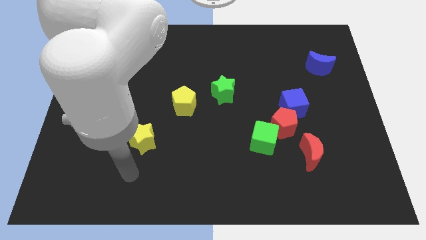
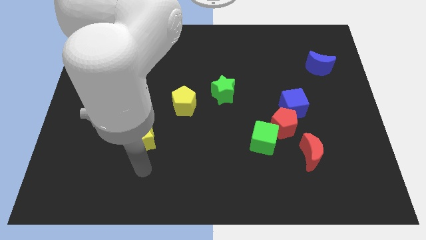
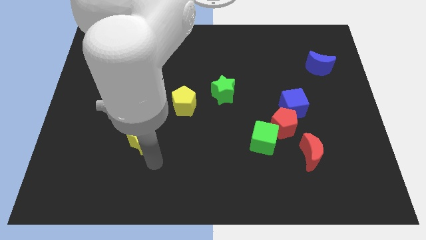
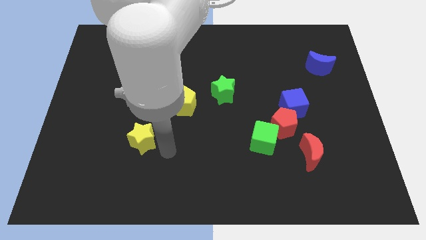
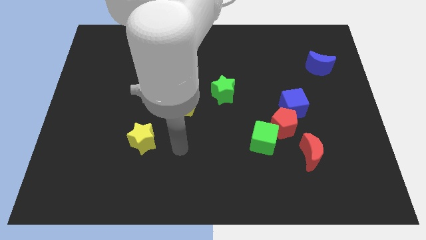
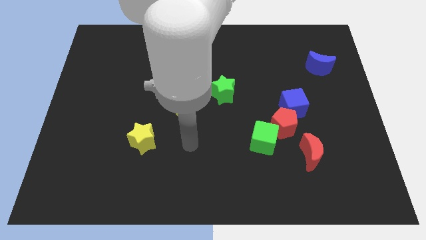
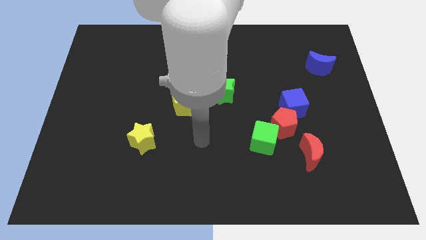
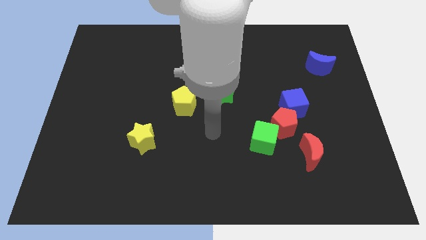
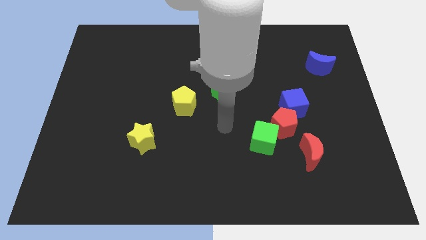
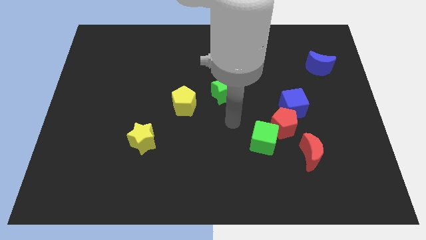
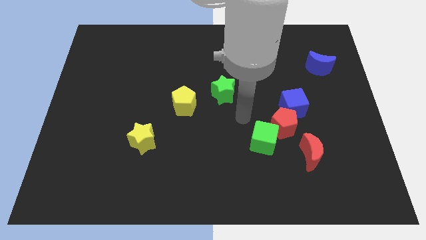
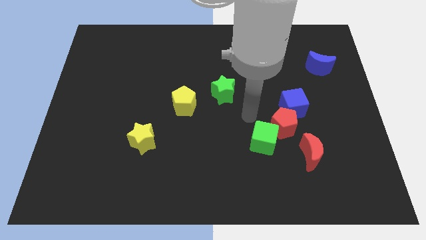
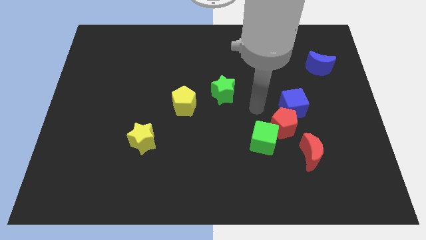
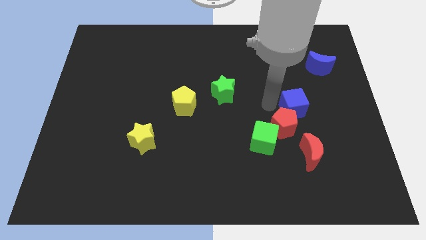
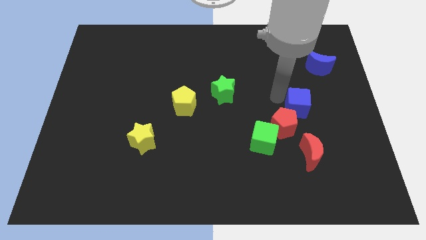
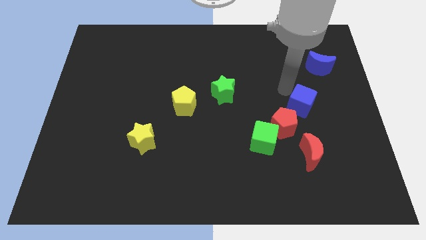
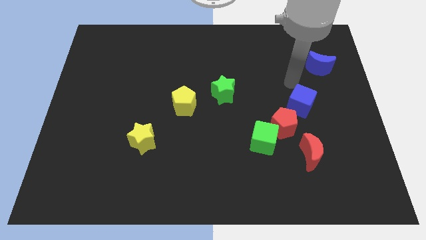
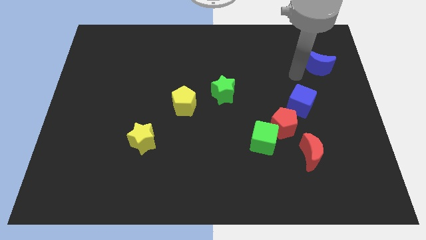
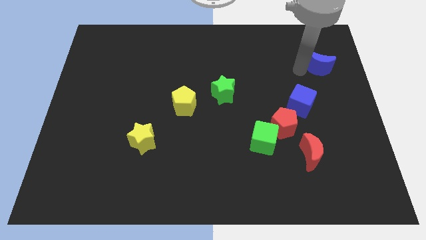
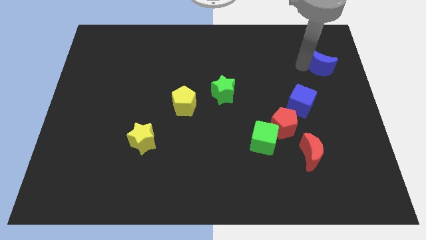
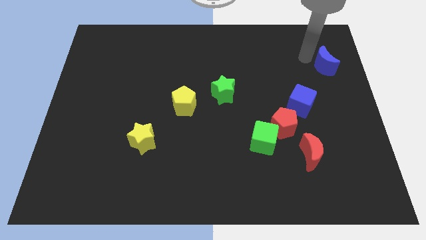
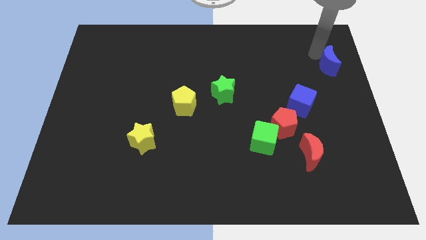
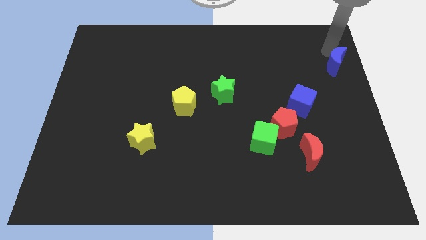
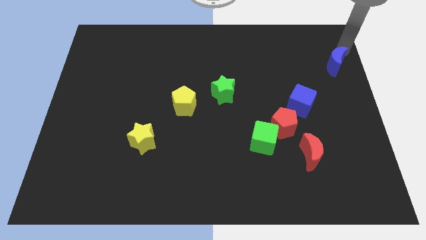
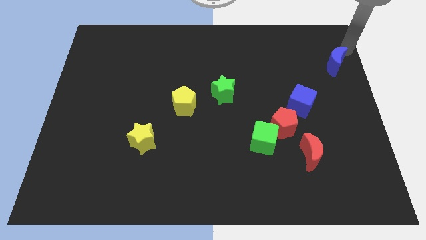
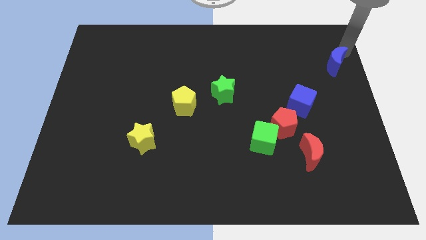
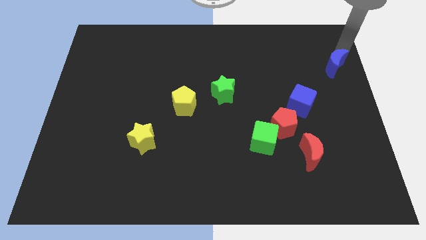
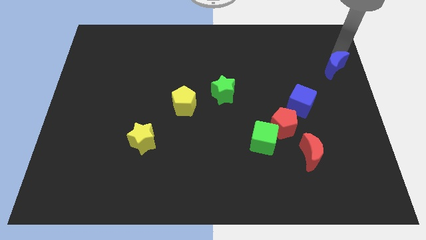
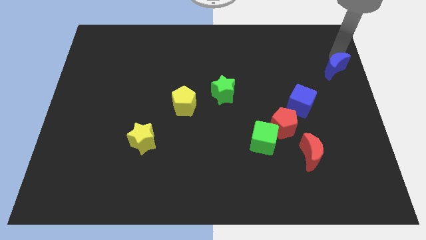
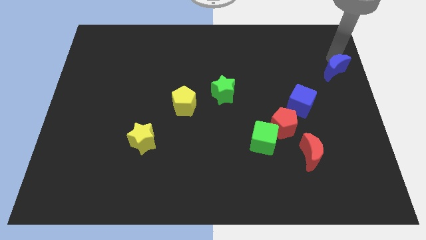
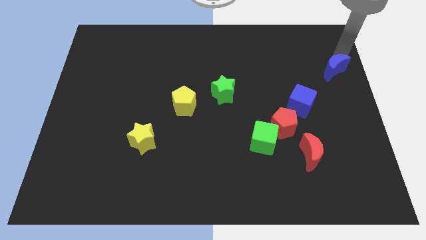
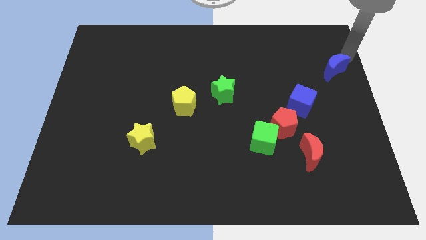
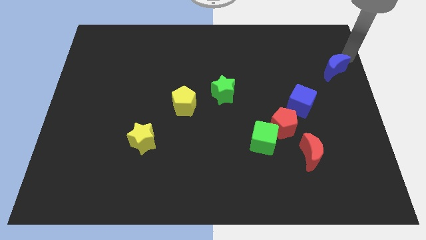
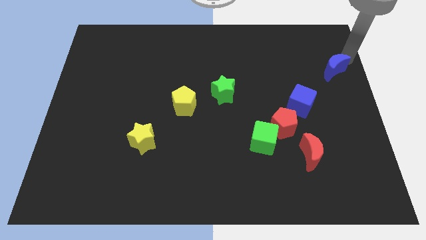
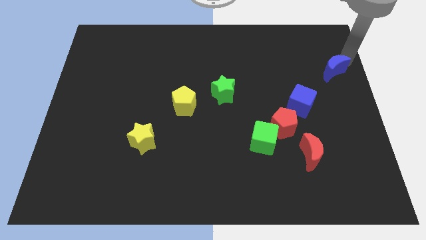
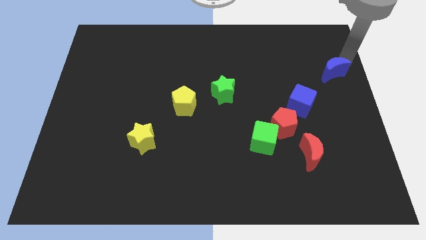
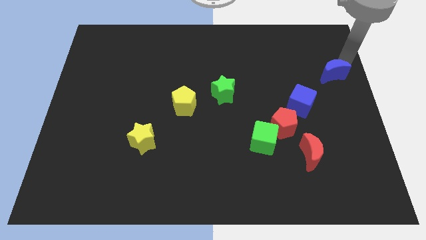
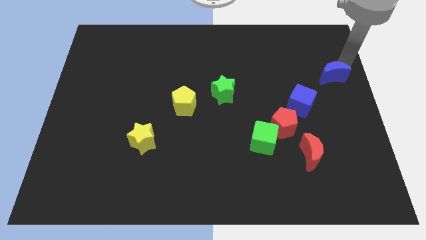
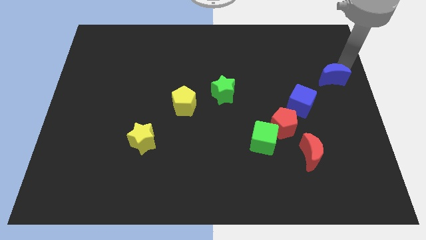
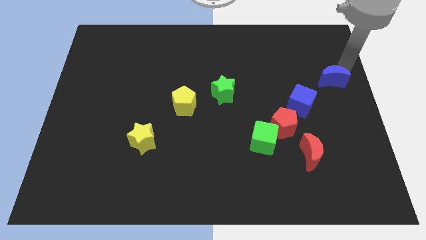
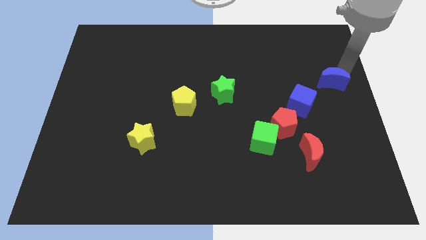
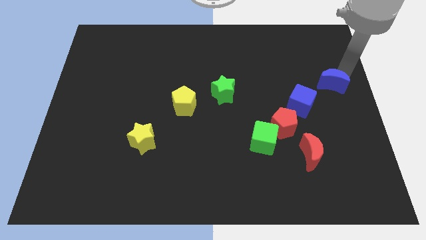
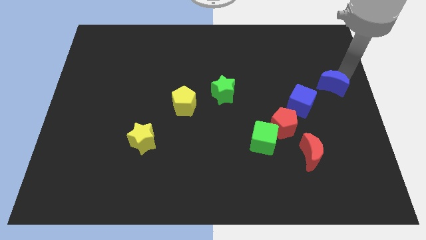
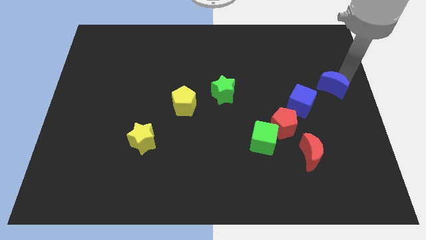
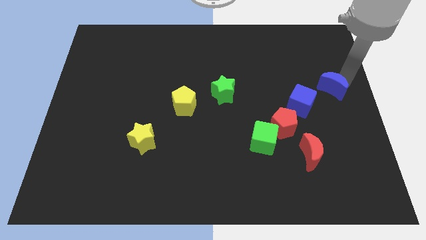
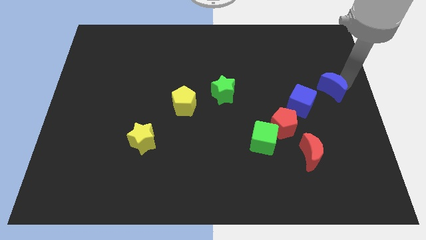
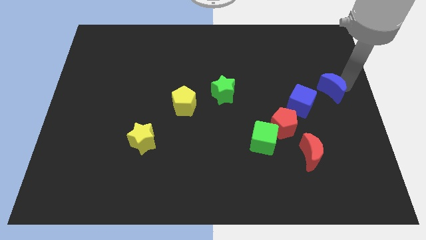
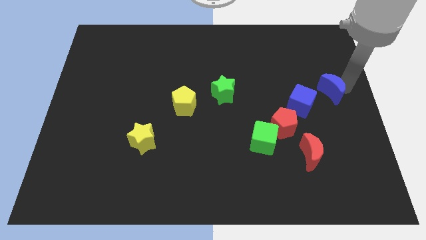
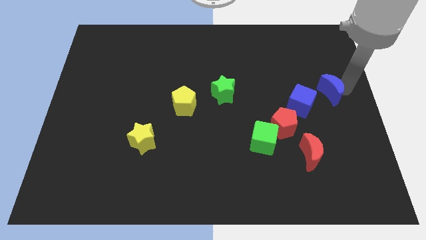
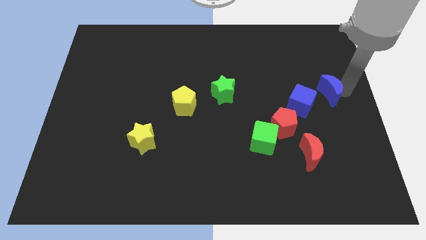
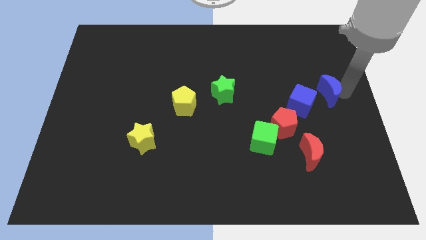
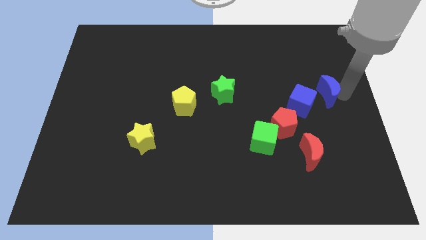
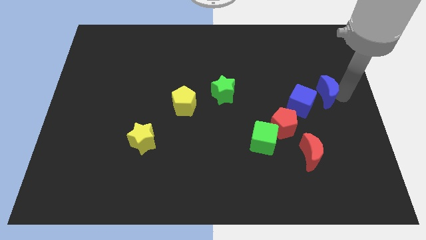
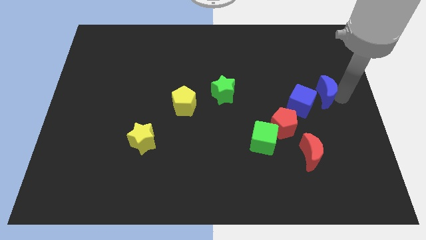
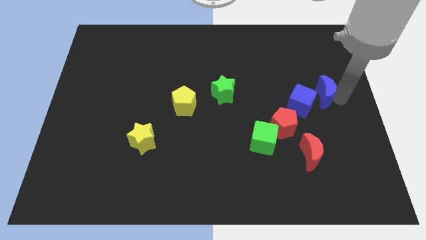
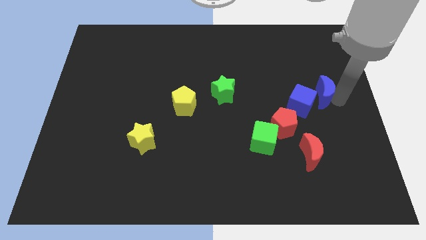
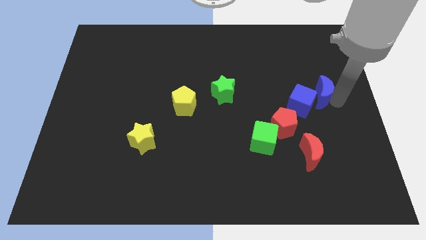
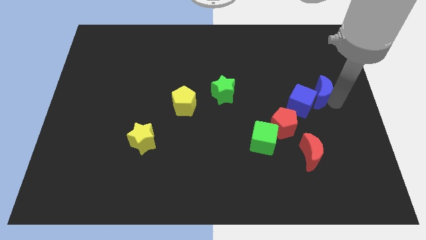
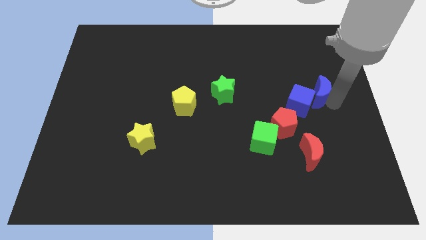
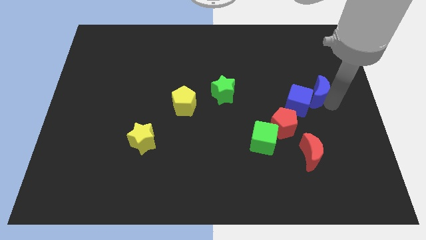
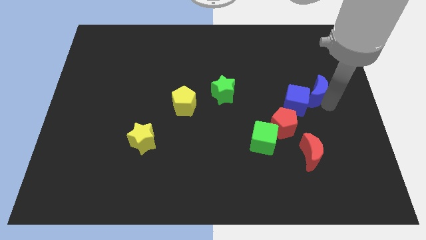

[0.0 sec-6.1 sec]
slide the blue moon diagonally downwards and to the left a little

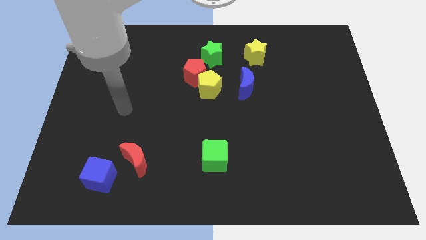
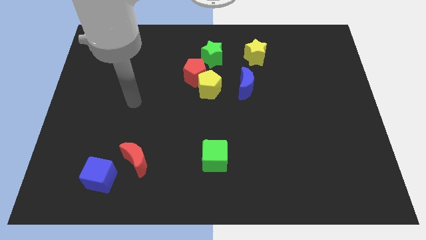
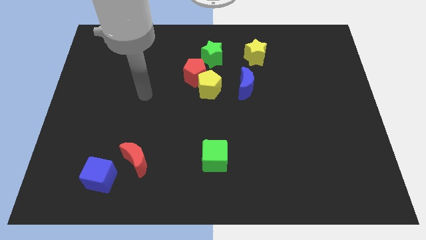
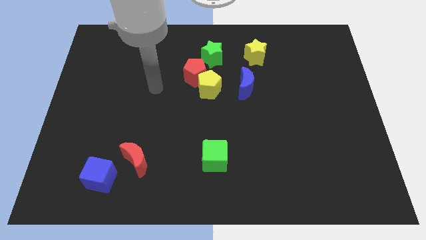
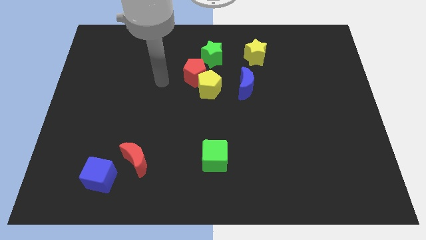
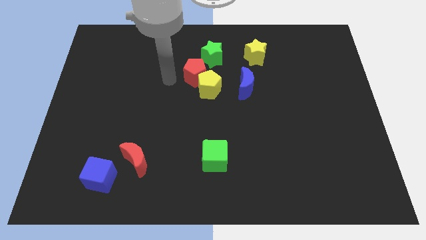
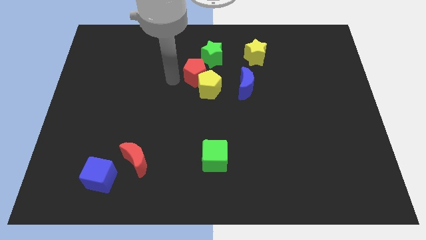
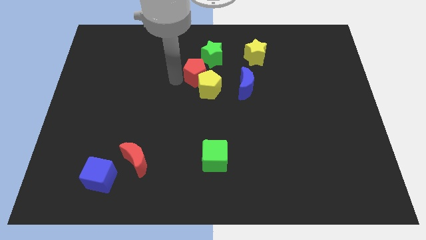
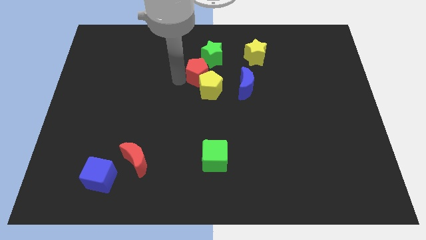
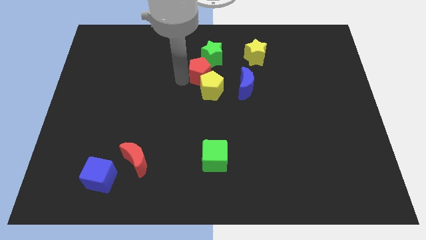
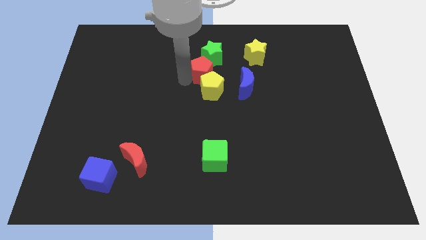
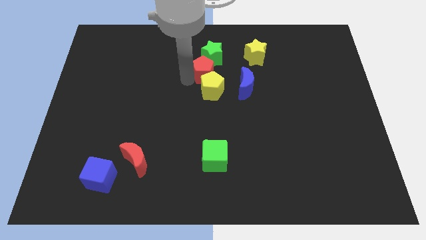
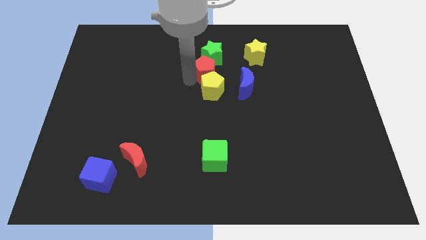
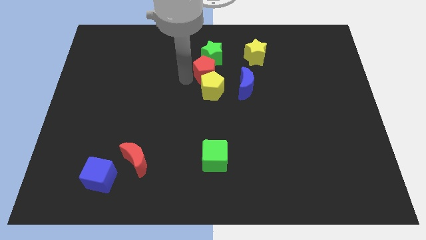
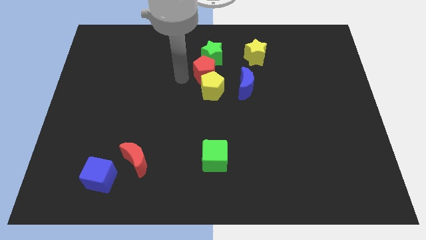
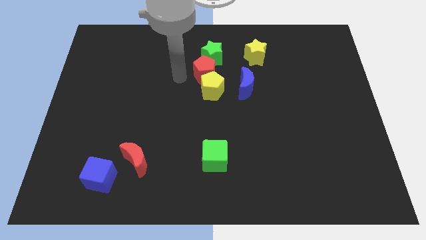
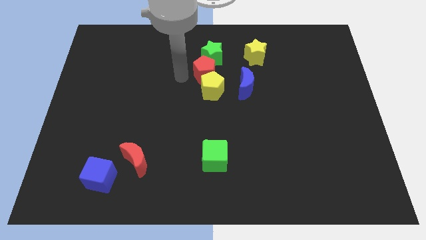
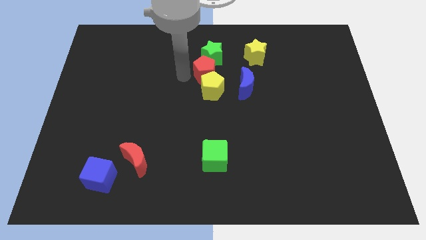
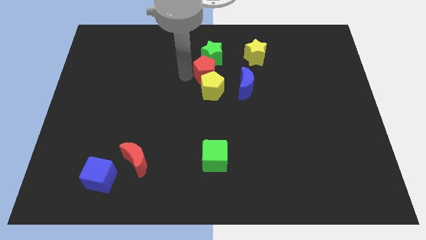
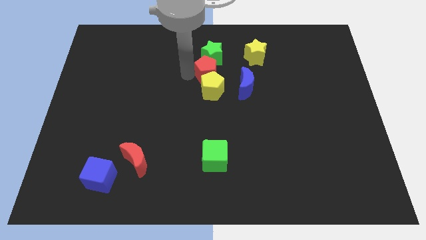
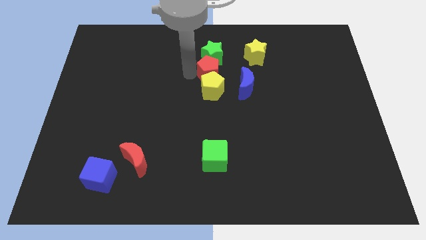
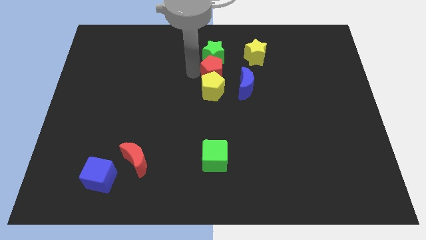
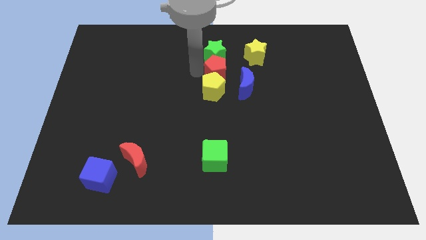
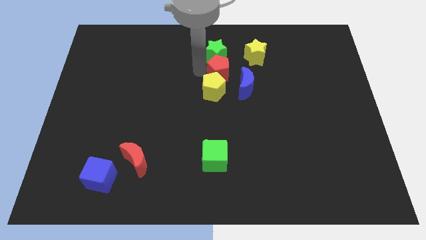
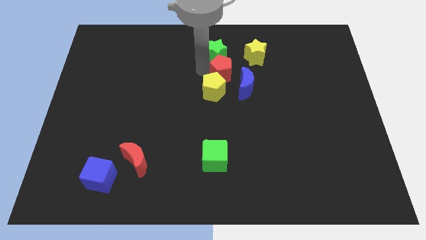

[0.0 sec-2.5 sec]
slide the red pentagon a little to the right
